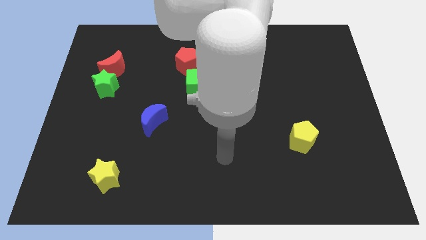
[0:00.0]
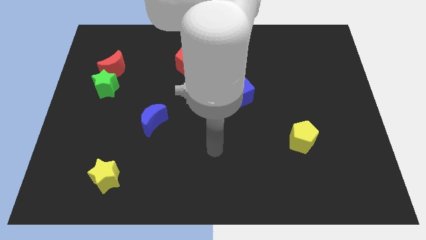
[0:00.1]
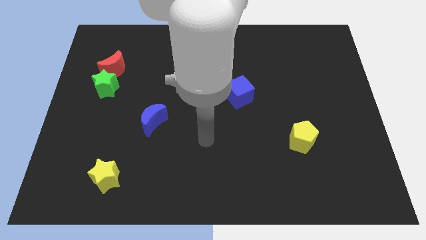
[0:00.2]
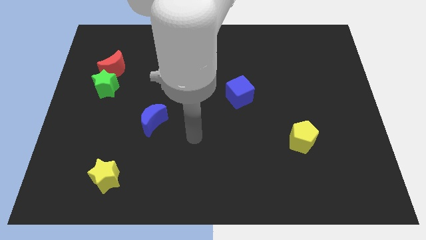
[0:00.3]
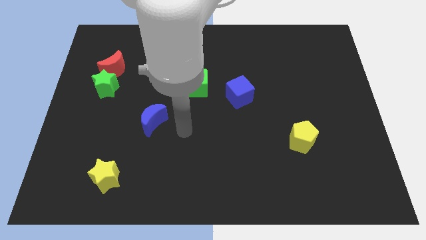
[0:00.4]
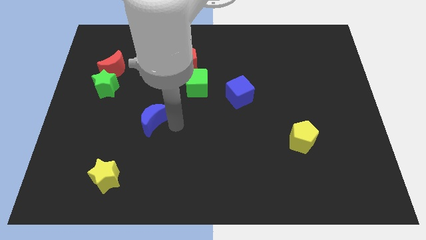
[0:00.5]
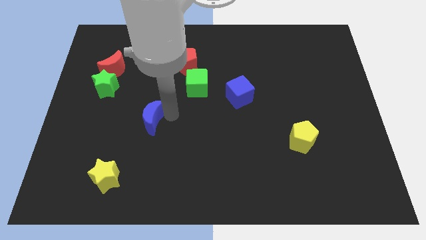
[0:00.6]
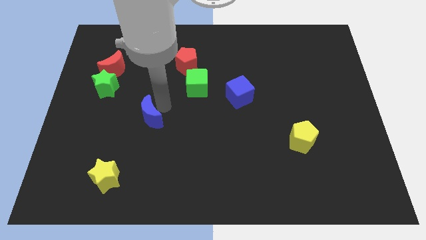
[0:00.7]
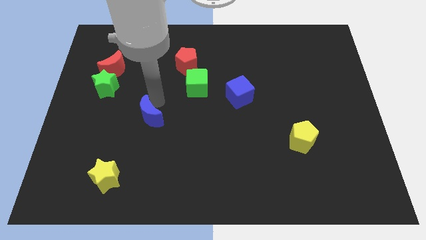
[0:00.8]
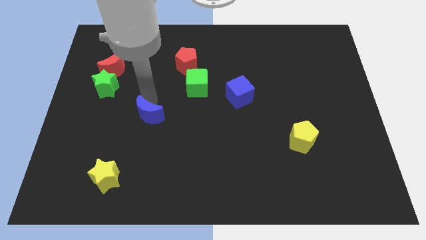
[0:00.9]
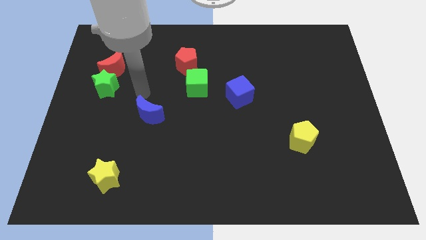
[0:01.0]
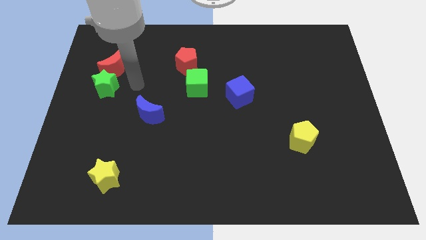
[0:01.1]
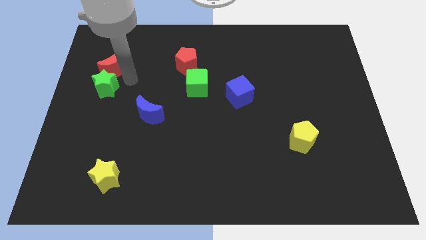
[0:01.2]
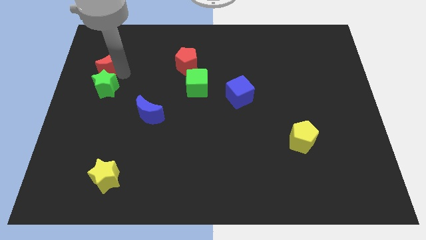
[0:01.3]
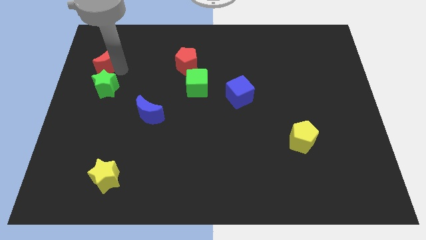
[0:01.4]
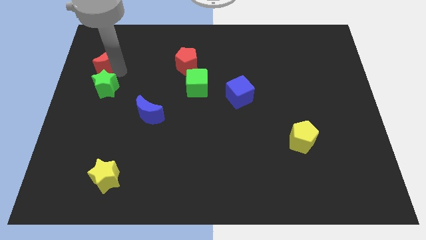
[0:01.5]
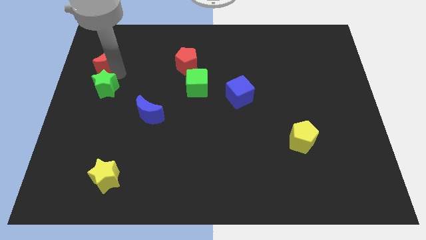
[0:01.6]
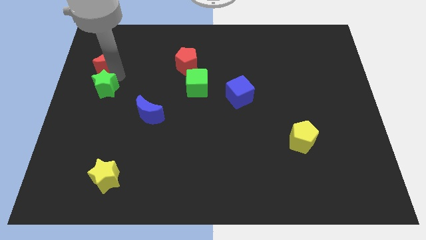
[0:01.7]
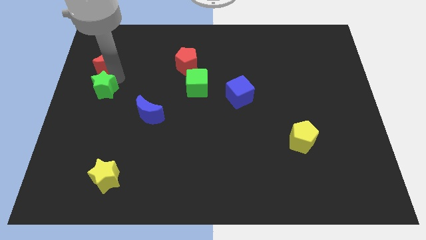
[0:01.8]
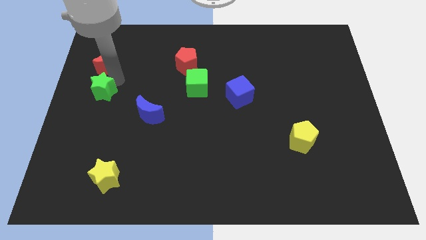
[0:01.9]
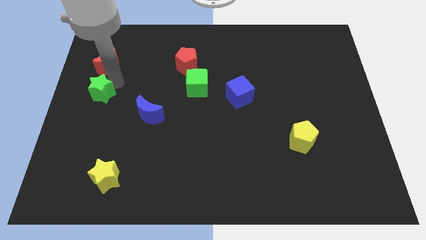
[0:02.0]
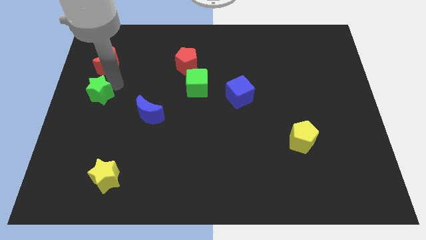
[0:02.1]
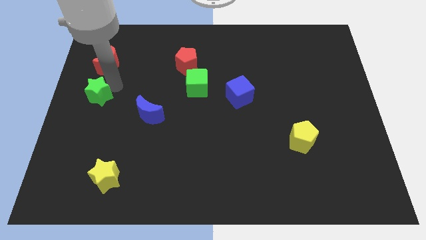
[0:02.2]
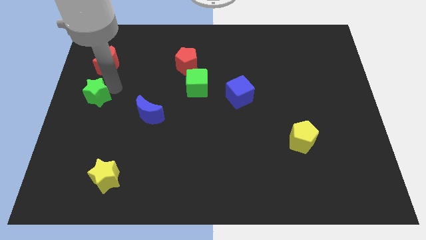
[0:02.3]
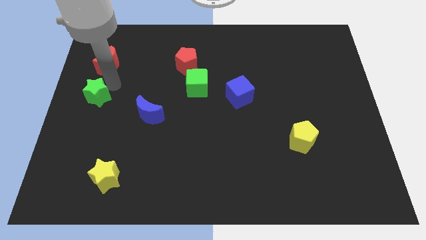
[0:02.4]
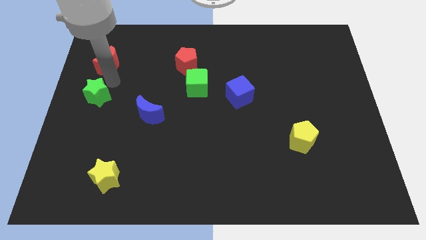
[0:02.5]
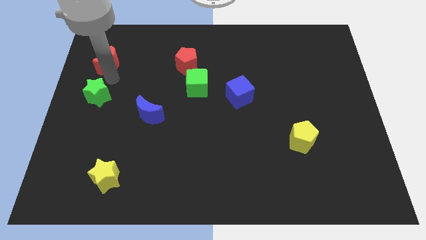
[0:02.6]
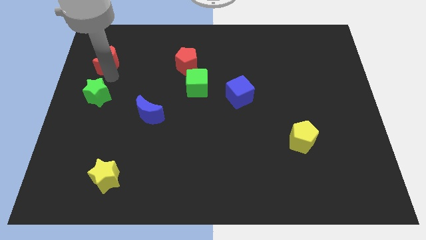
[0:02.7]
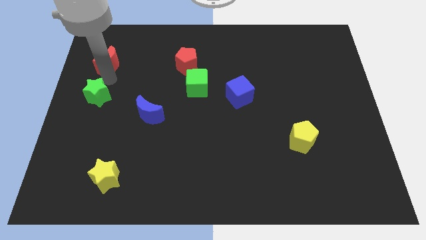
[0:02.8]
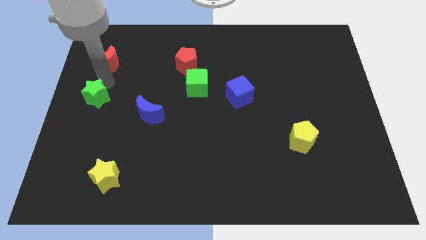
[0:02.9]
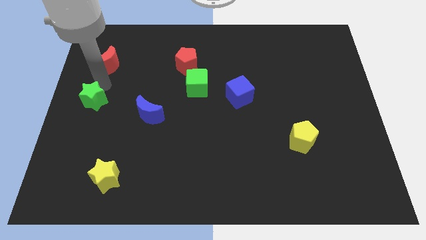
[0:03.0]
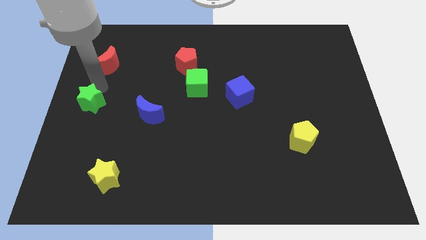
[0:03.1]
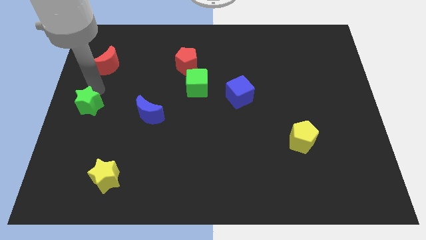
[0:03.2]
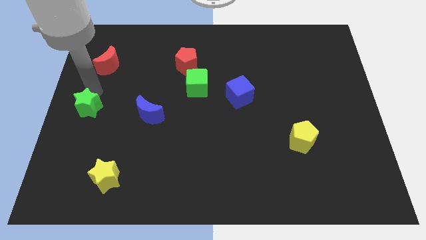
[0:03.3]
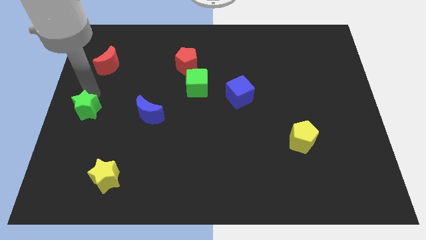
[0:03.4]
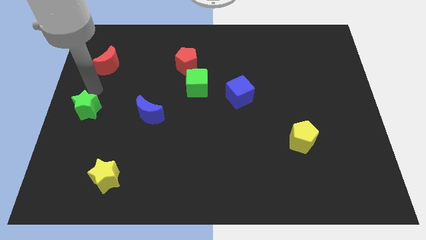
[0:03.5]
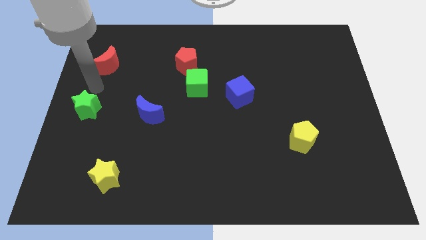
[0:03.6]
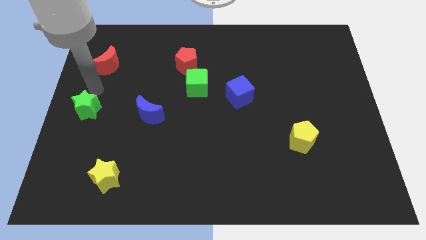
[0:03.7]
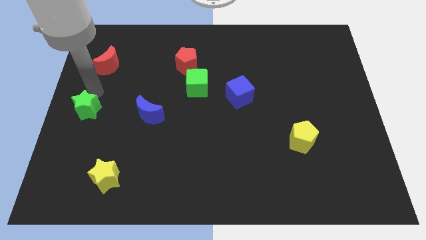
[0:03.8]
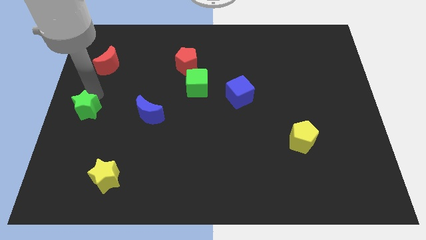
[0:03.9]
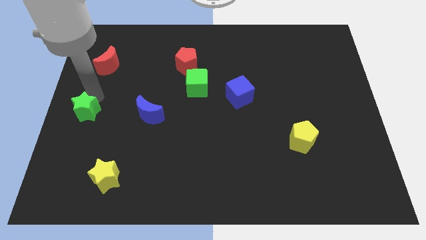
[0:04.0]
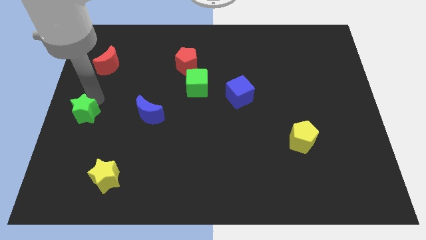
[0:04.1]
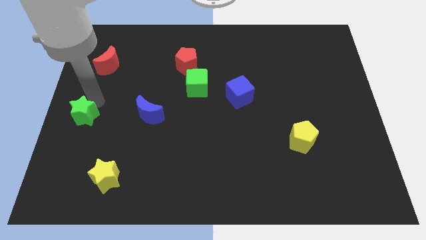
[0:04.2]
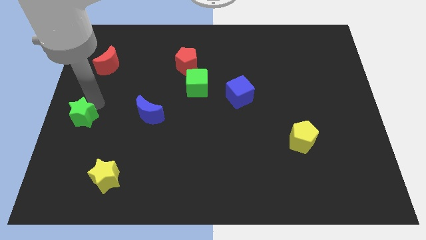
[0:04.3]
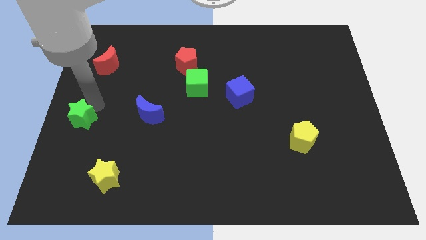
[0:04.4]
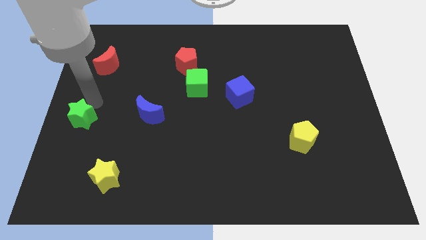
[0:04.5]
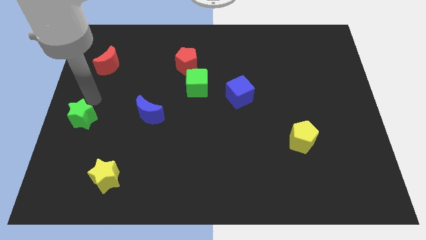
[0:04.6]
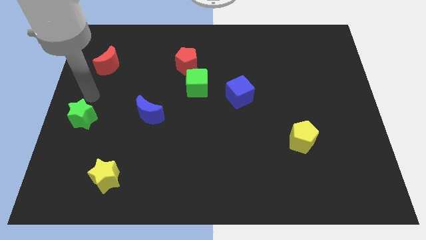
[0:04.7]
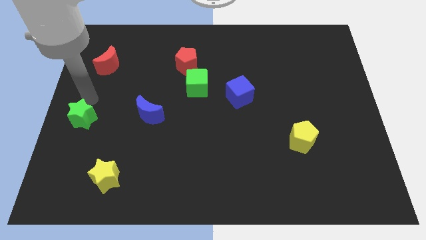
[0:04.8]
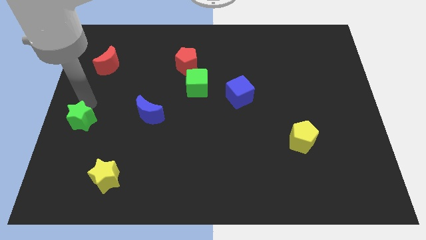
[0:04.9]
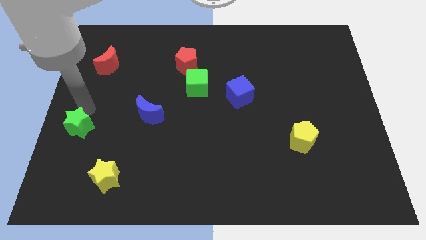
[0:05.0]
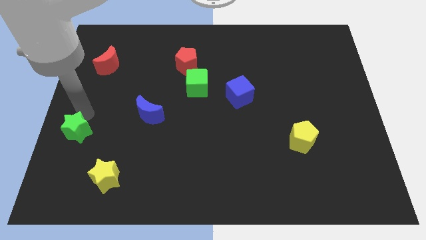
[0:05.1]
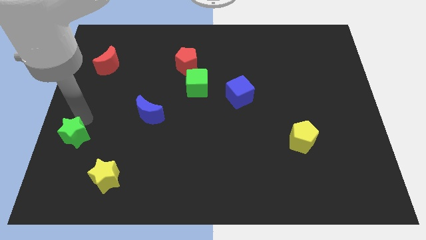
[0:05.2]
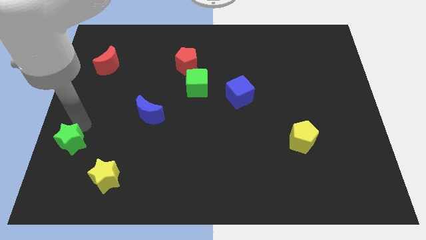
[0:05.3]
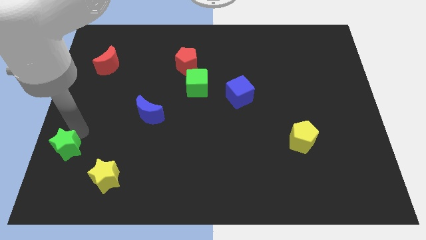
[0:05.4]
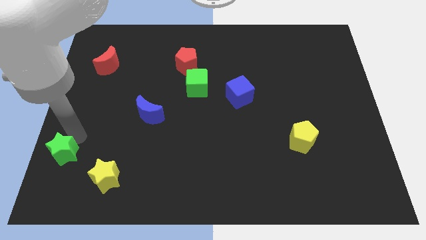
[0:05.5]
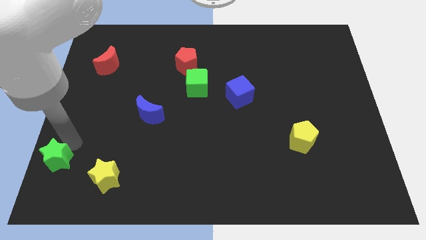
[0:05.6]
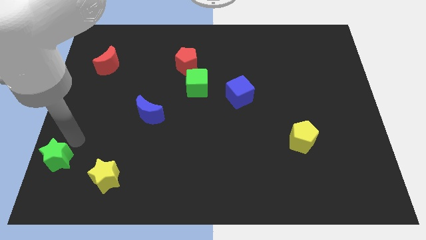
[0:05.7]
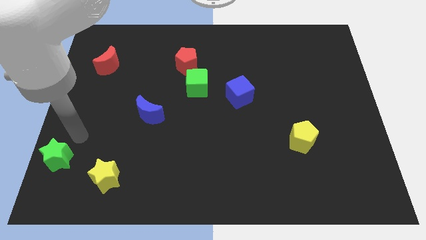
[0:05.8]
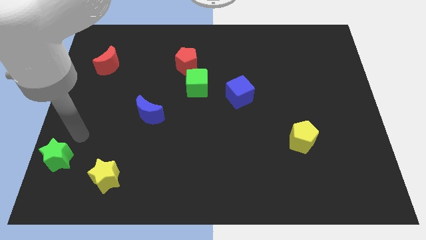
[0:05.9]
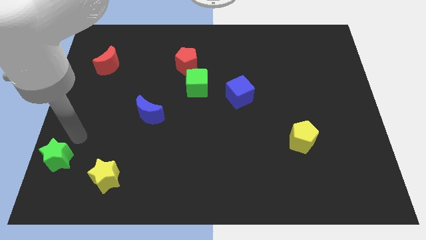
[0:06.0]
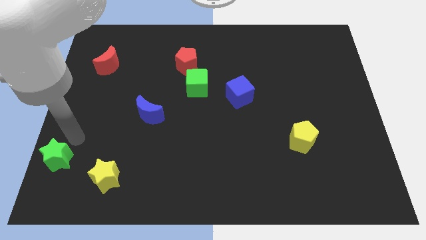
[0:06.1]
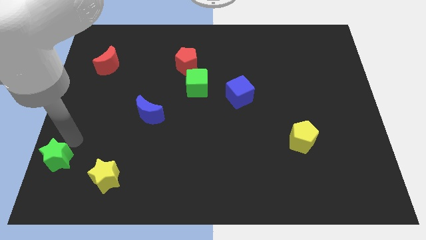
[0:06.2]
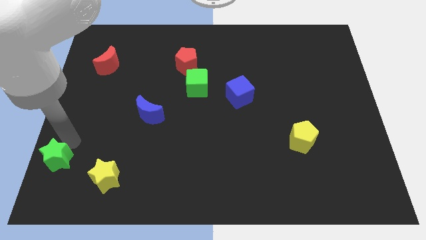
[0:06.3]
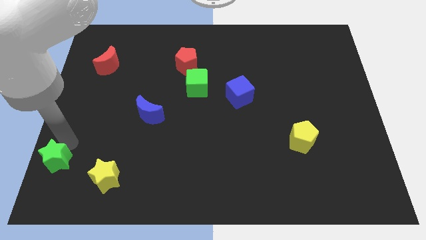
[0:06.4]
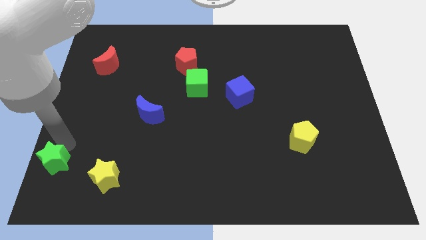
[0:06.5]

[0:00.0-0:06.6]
move the green star to the lower left corner

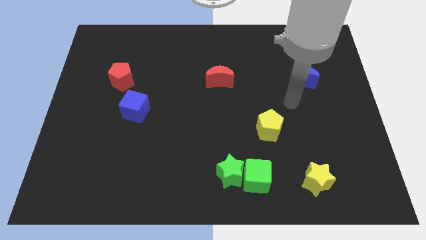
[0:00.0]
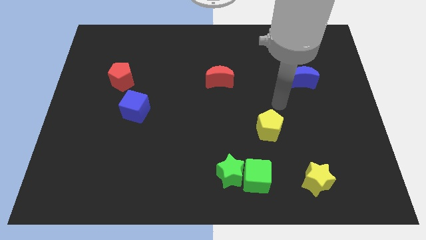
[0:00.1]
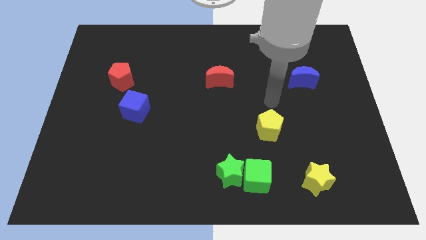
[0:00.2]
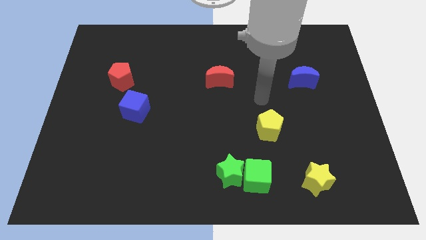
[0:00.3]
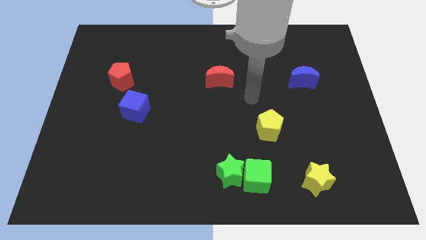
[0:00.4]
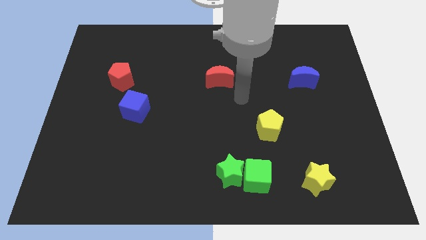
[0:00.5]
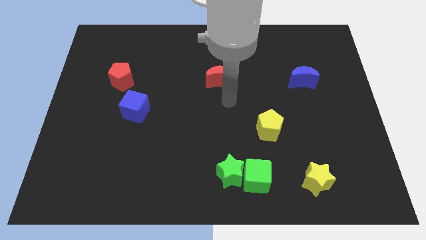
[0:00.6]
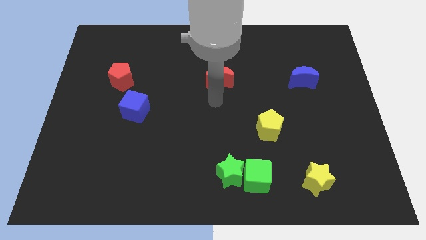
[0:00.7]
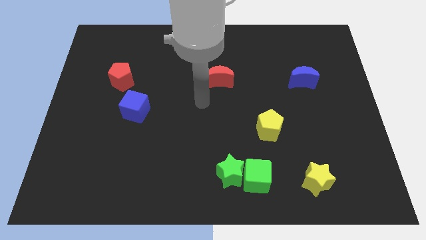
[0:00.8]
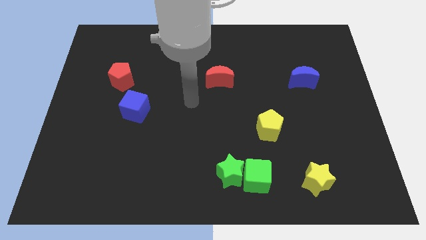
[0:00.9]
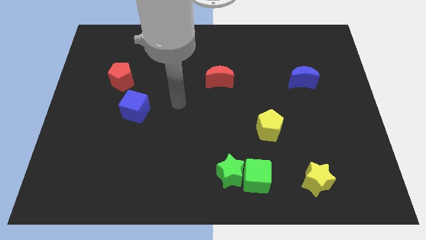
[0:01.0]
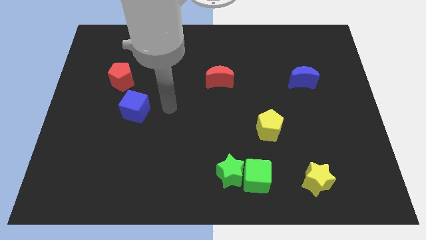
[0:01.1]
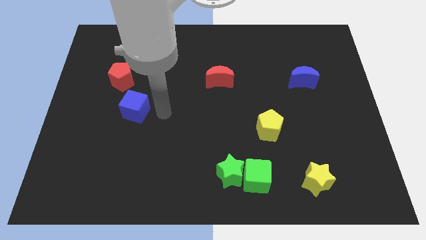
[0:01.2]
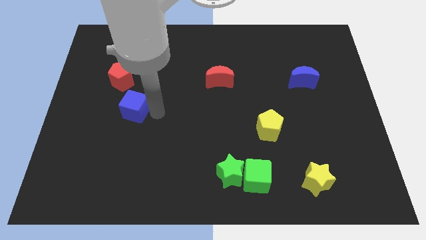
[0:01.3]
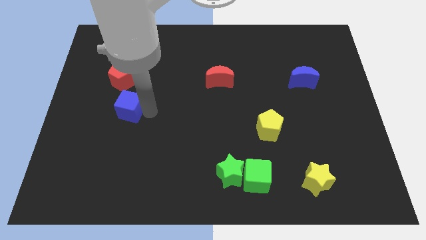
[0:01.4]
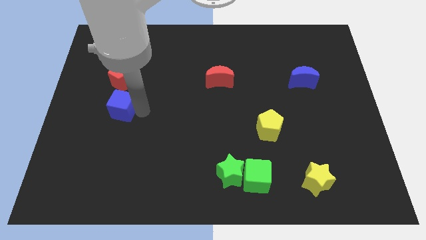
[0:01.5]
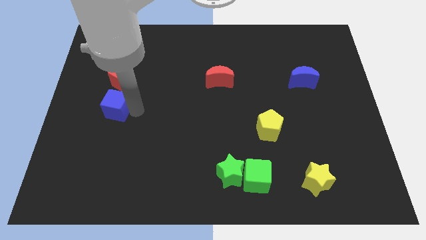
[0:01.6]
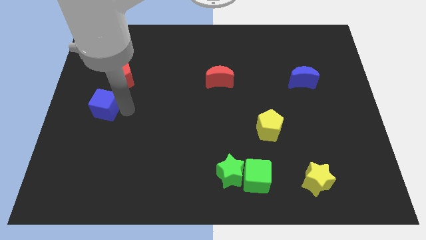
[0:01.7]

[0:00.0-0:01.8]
put the blue cube to the center left
